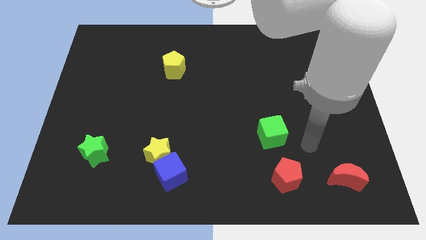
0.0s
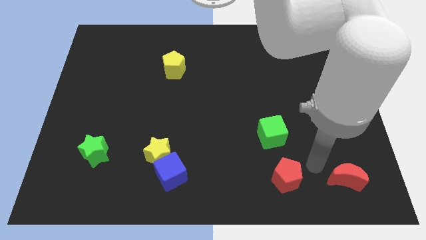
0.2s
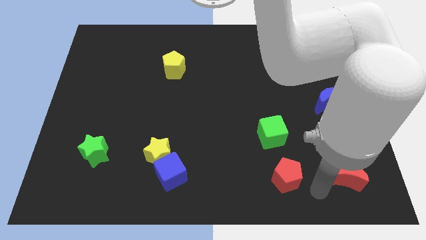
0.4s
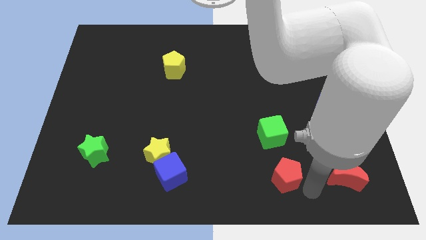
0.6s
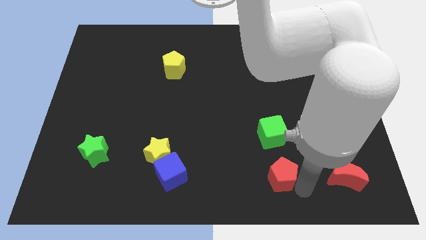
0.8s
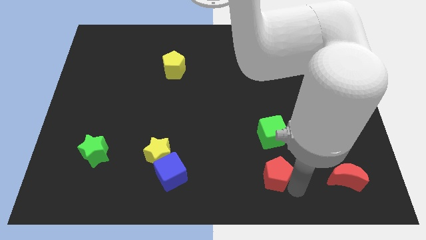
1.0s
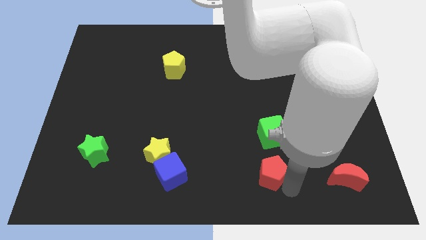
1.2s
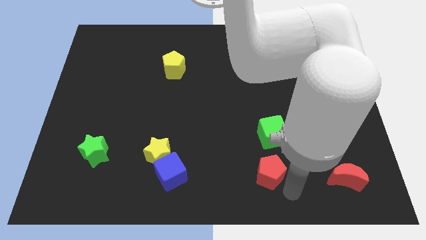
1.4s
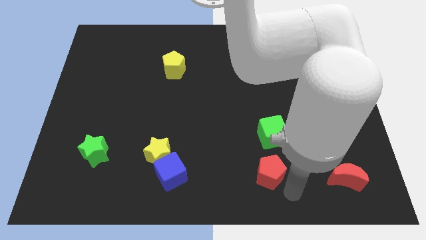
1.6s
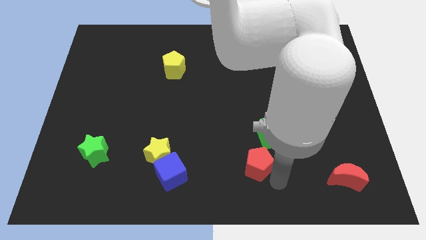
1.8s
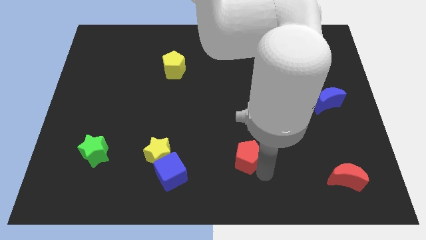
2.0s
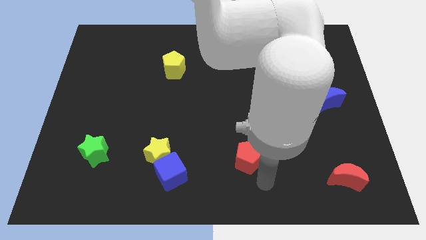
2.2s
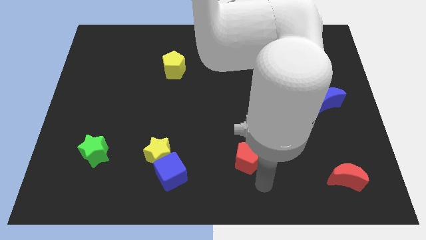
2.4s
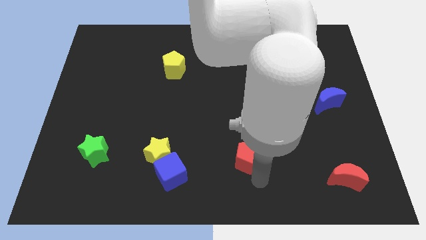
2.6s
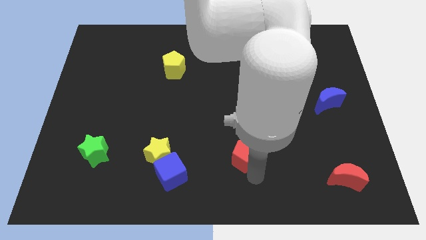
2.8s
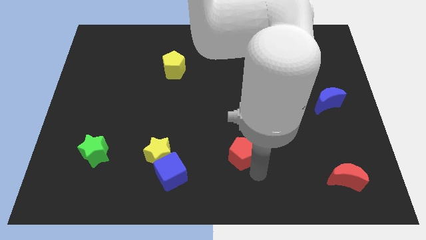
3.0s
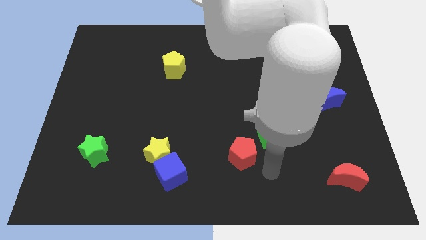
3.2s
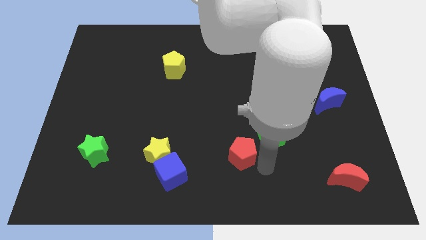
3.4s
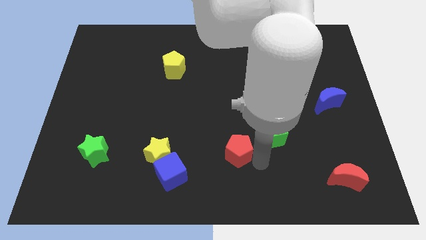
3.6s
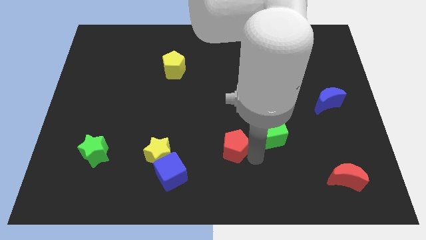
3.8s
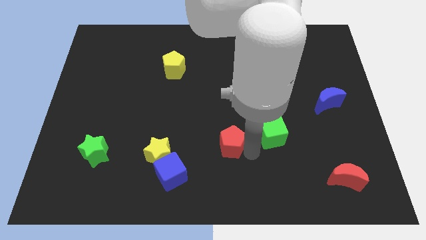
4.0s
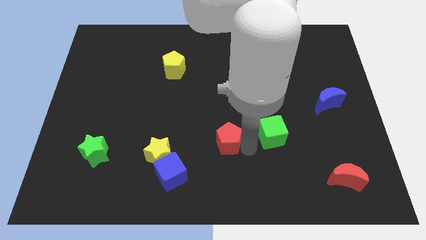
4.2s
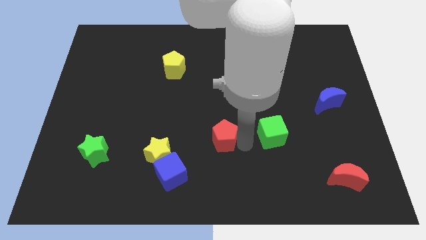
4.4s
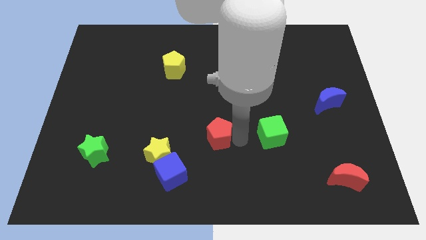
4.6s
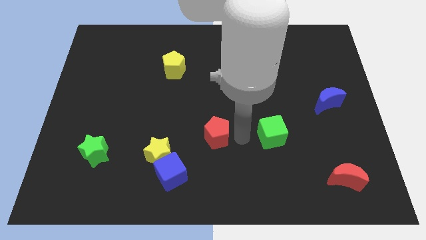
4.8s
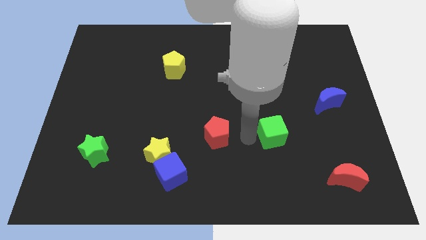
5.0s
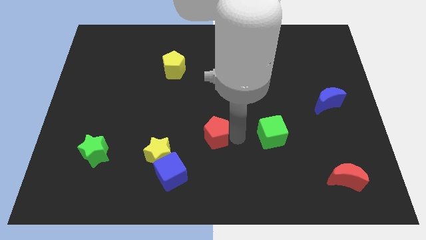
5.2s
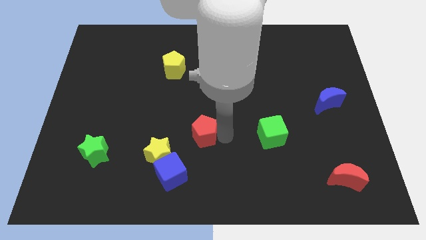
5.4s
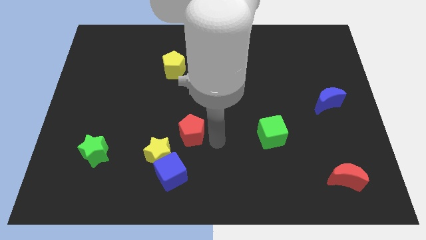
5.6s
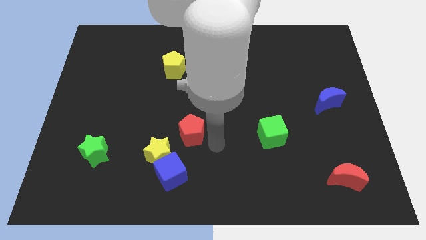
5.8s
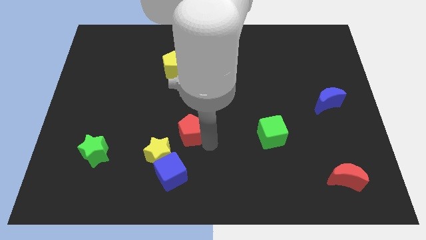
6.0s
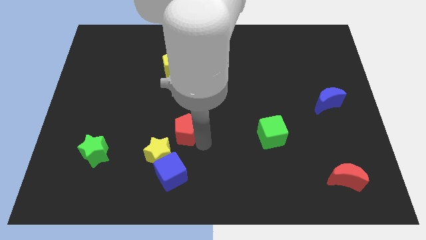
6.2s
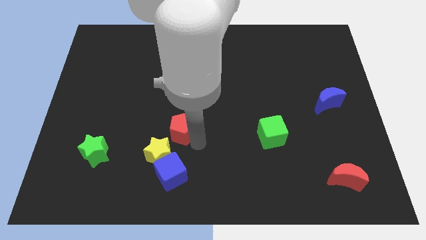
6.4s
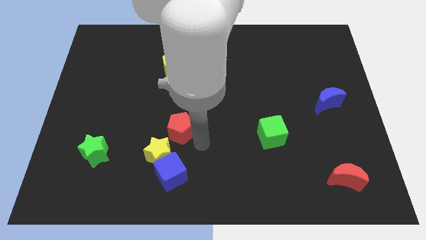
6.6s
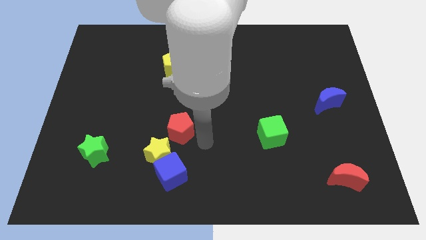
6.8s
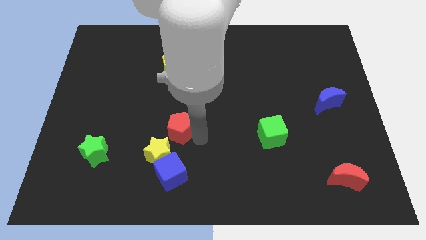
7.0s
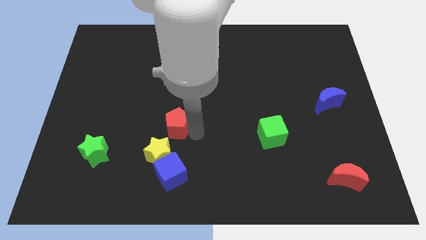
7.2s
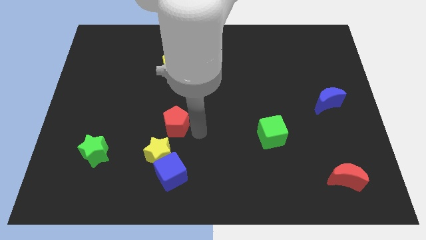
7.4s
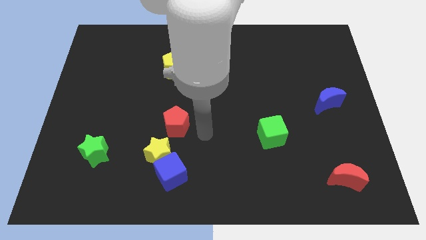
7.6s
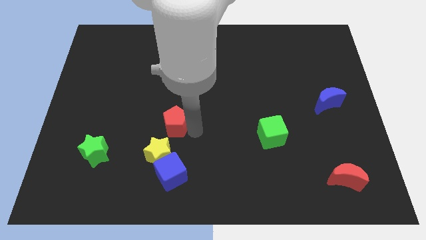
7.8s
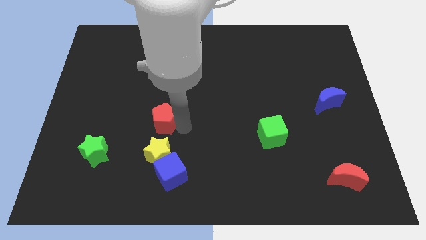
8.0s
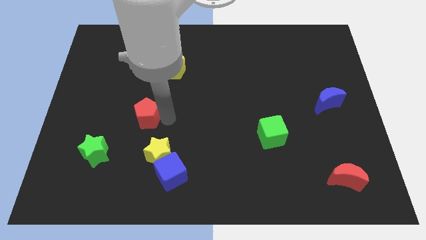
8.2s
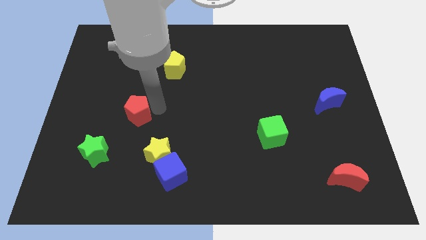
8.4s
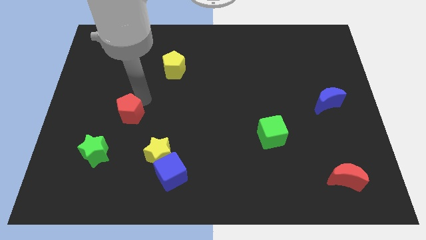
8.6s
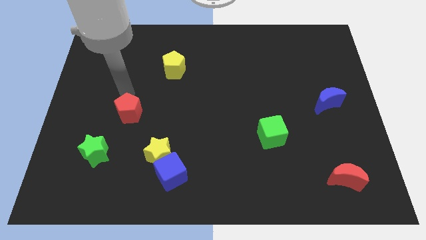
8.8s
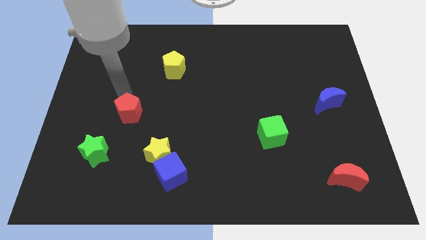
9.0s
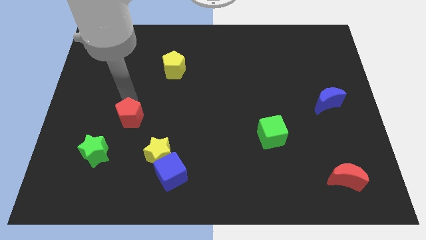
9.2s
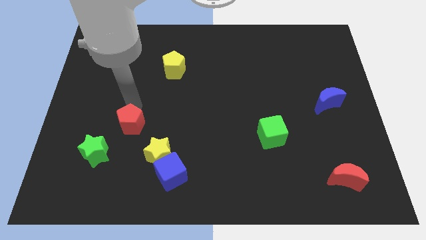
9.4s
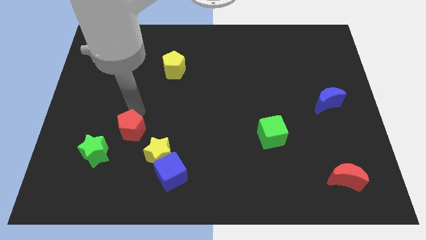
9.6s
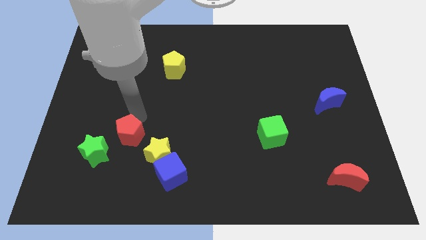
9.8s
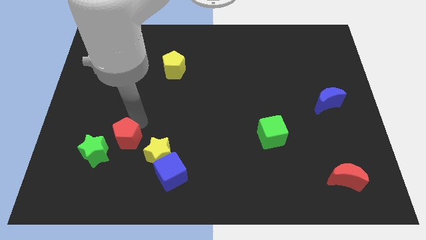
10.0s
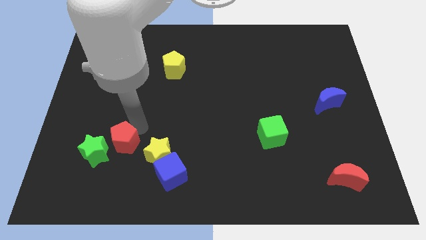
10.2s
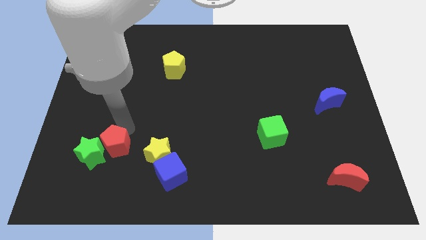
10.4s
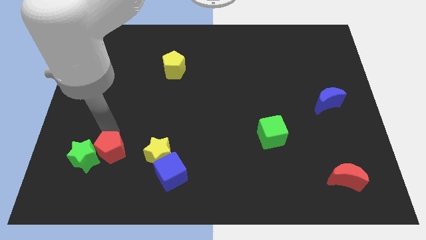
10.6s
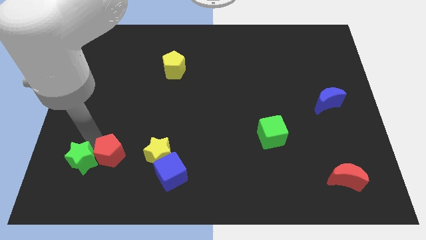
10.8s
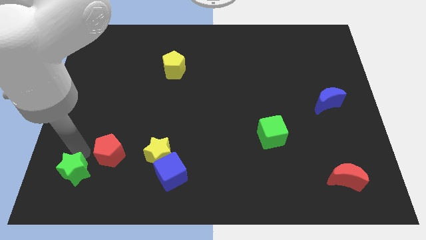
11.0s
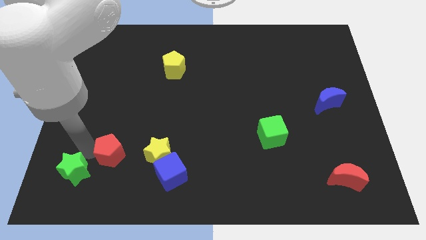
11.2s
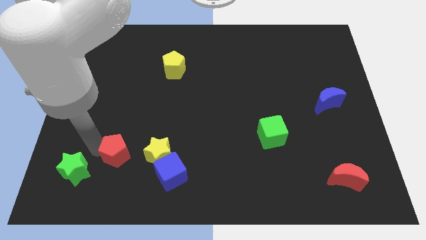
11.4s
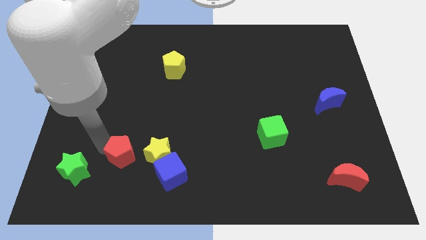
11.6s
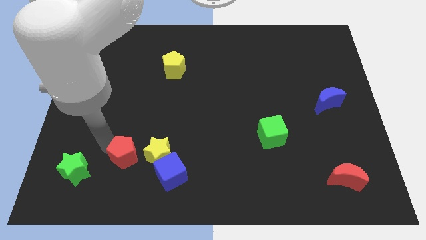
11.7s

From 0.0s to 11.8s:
put the red pentagon to the top left side of the blue cube

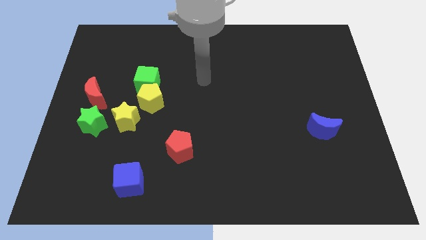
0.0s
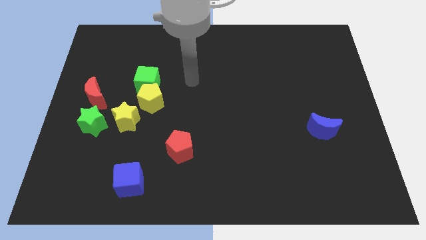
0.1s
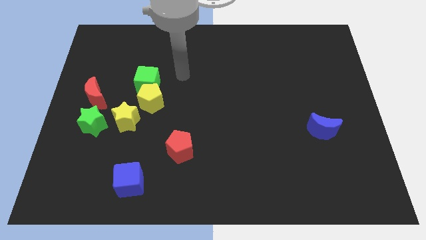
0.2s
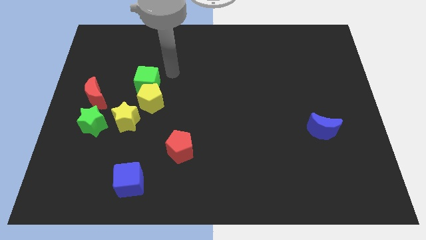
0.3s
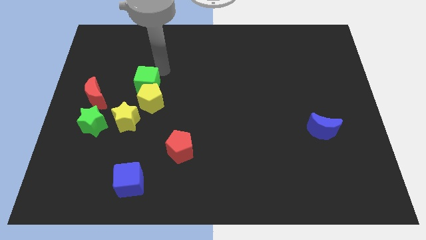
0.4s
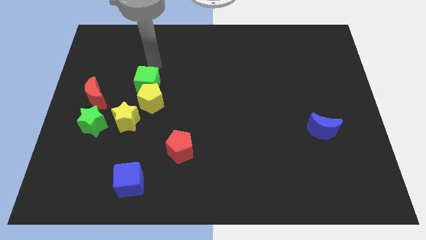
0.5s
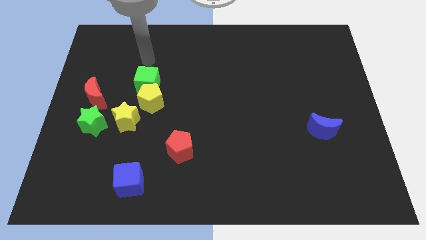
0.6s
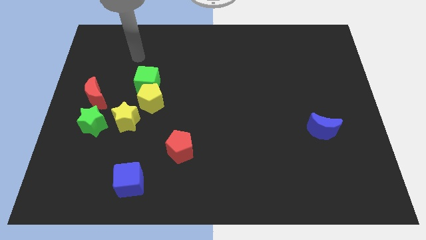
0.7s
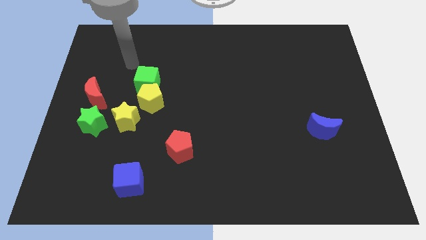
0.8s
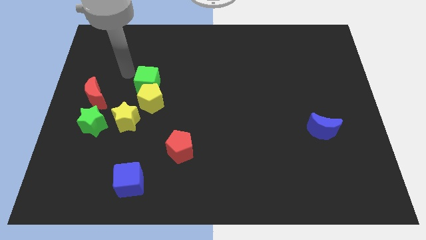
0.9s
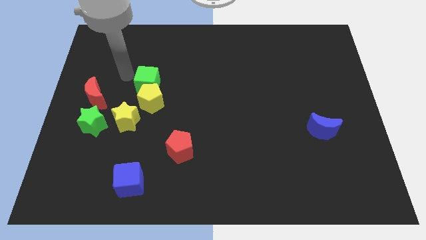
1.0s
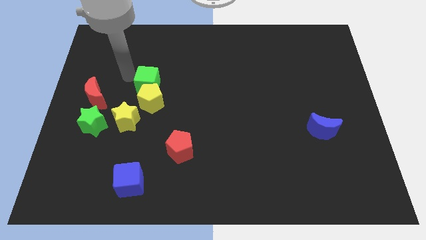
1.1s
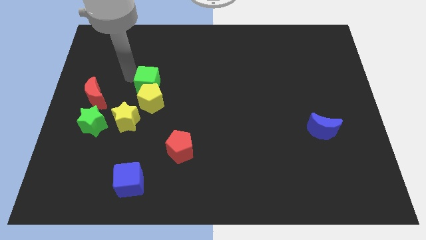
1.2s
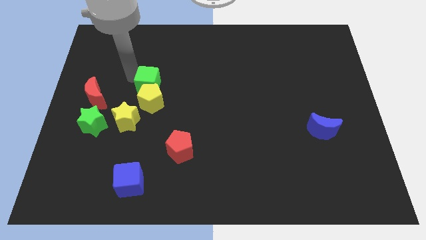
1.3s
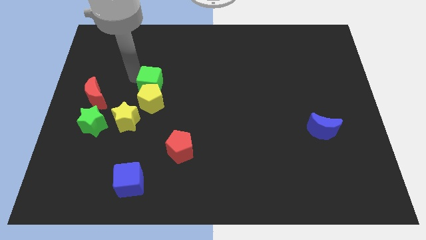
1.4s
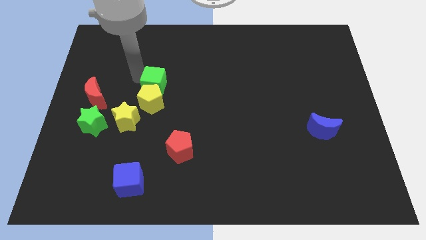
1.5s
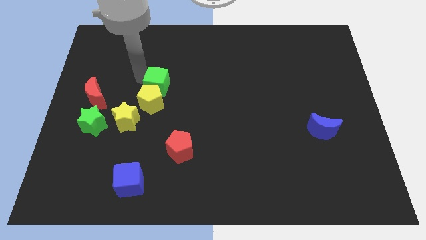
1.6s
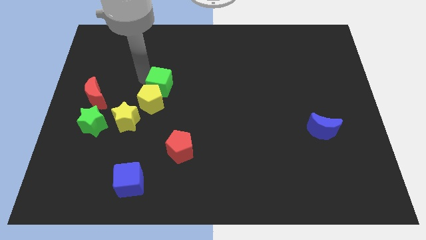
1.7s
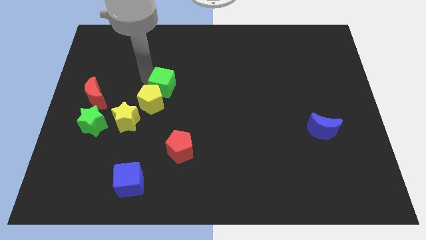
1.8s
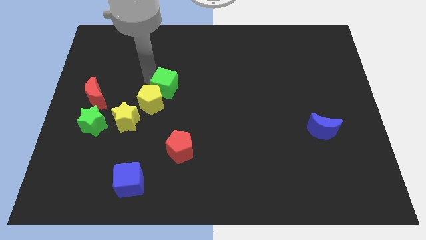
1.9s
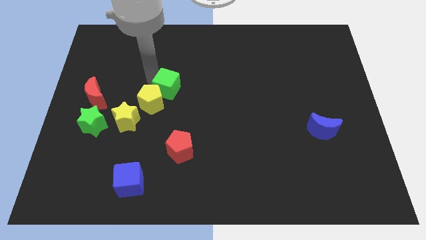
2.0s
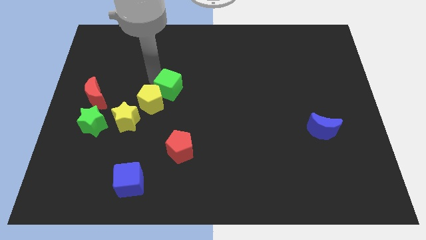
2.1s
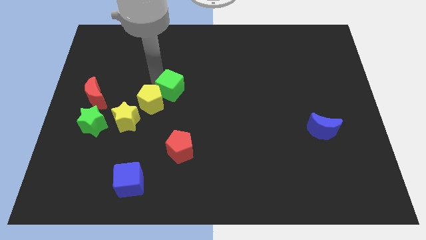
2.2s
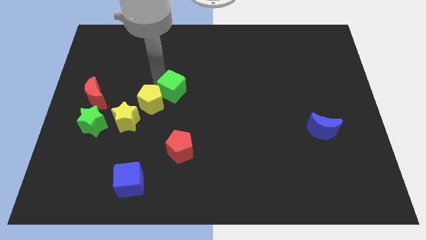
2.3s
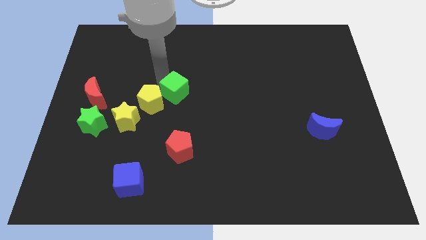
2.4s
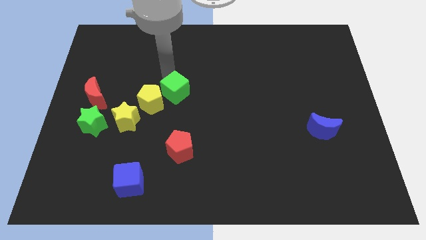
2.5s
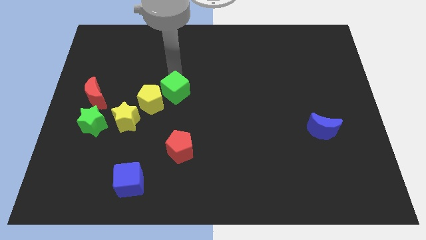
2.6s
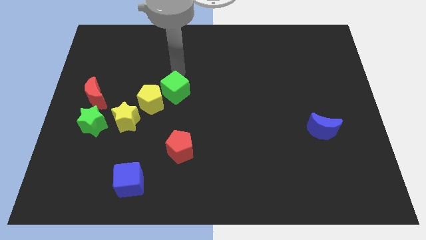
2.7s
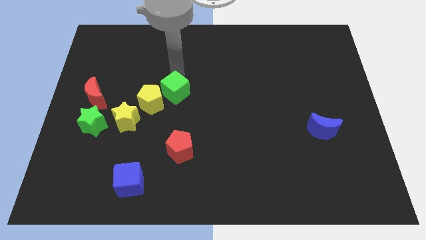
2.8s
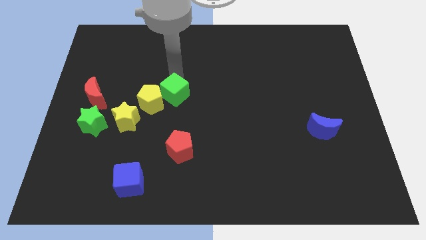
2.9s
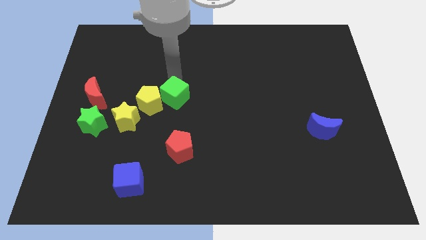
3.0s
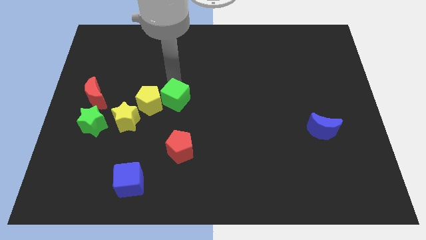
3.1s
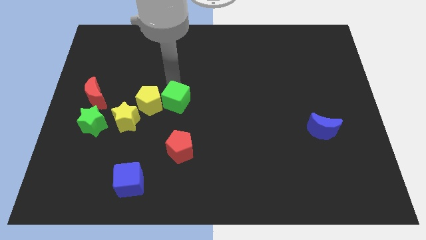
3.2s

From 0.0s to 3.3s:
slide the green cube to the bottom right side of the yellow pentagon
